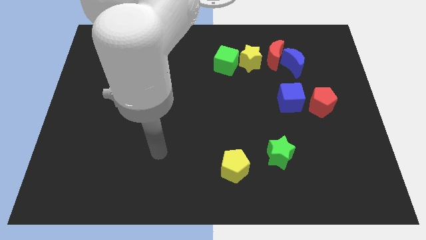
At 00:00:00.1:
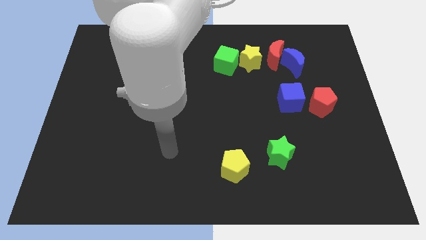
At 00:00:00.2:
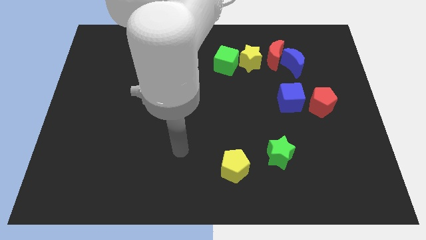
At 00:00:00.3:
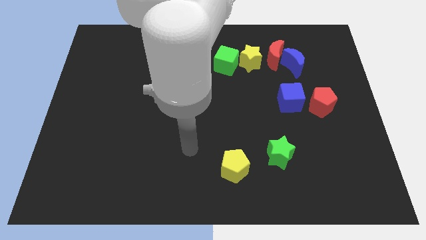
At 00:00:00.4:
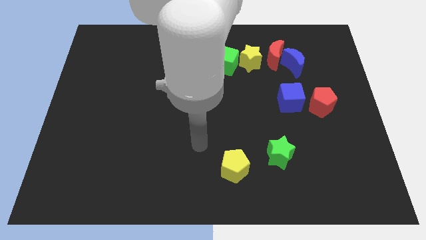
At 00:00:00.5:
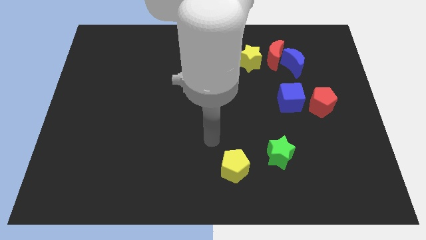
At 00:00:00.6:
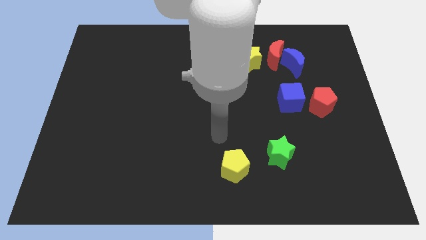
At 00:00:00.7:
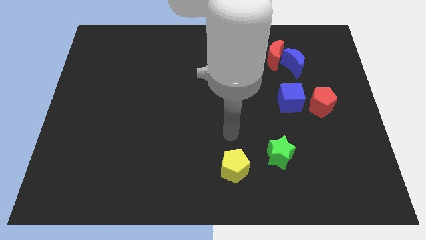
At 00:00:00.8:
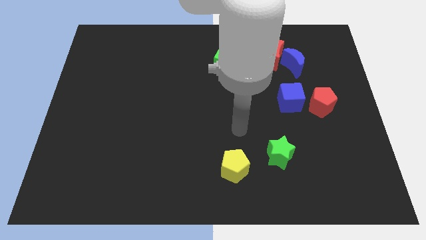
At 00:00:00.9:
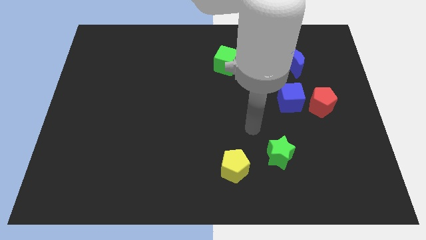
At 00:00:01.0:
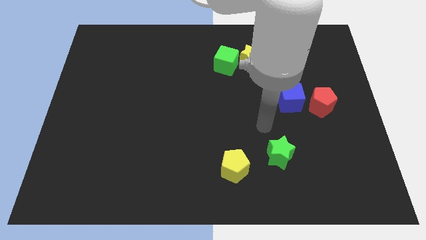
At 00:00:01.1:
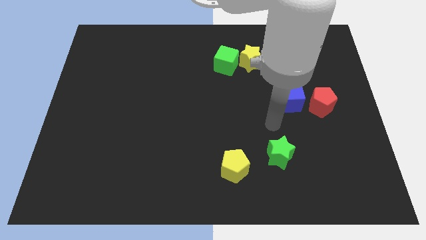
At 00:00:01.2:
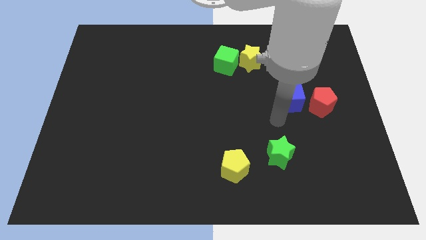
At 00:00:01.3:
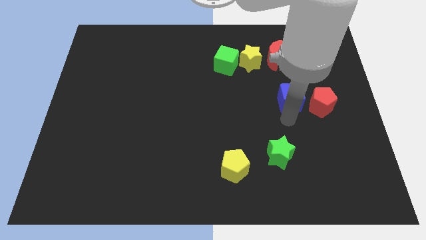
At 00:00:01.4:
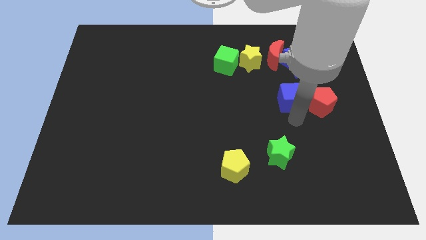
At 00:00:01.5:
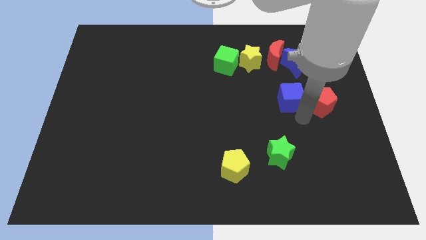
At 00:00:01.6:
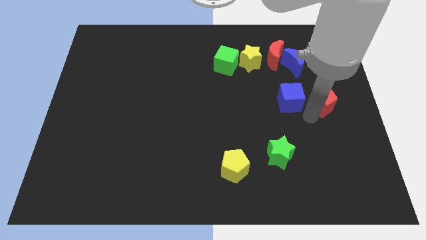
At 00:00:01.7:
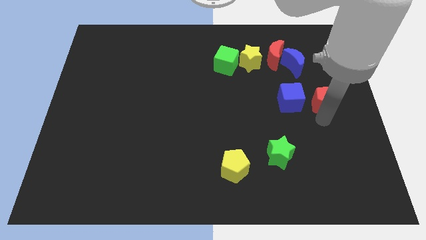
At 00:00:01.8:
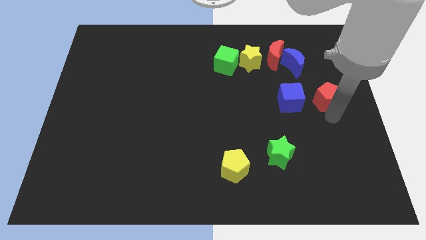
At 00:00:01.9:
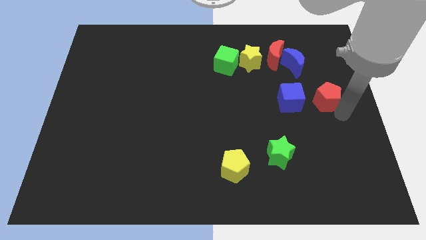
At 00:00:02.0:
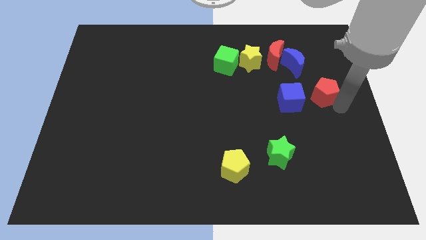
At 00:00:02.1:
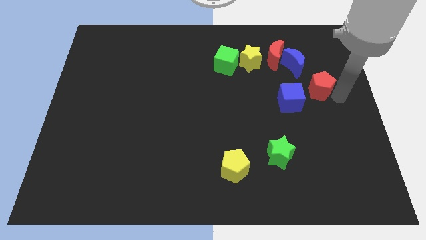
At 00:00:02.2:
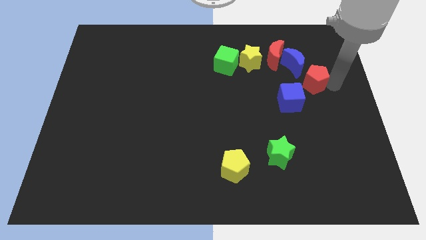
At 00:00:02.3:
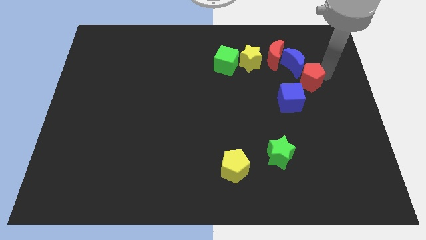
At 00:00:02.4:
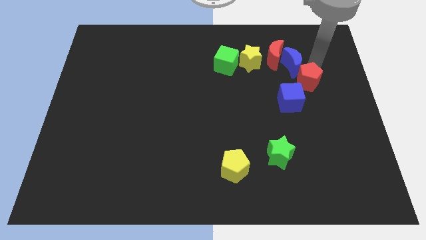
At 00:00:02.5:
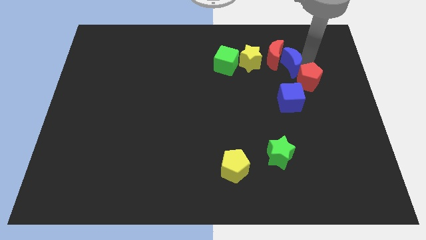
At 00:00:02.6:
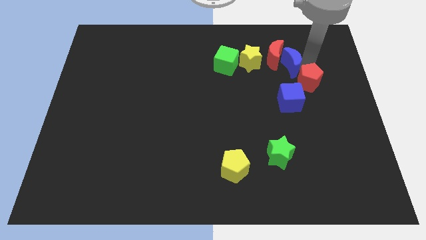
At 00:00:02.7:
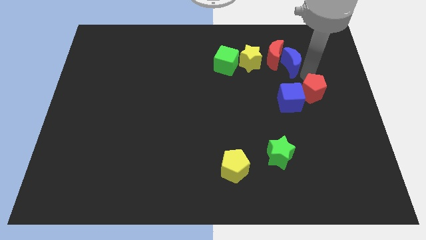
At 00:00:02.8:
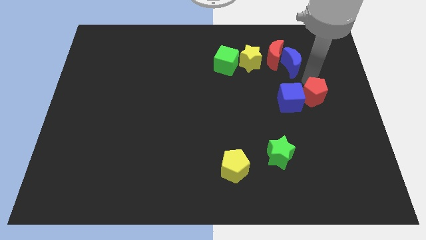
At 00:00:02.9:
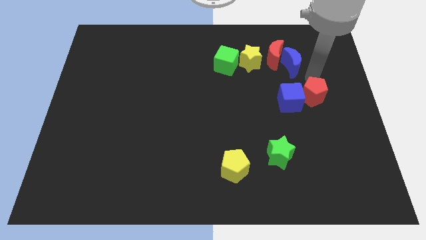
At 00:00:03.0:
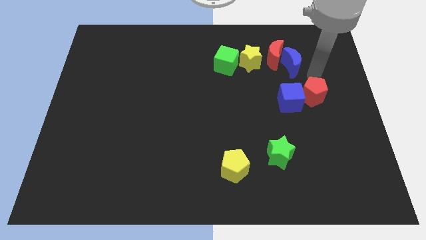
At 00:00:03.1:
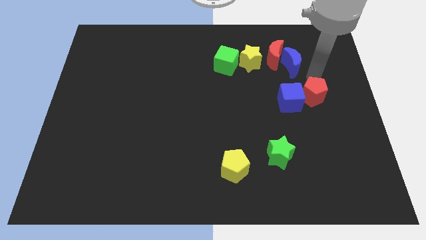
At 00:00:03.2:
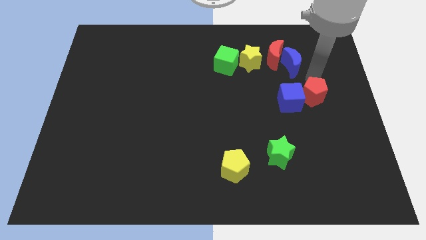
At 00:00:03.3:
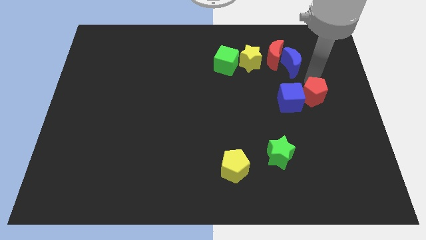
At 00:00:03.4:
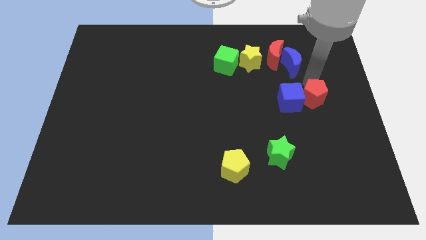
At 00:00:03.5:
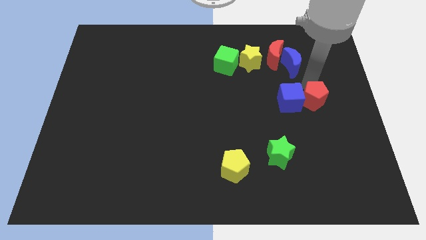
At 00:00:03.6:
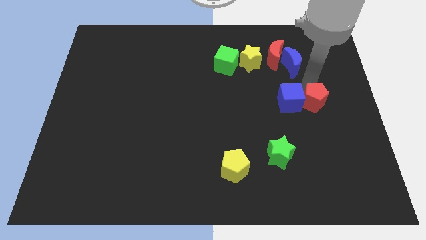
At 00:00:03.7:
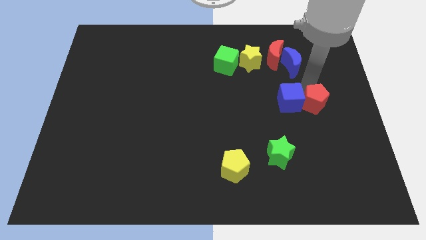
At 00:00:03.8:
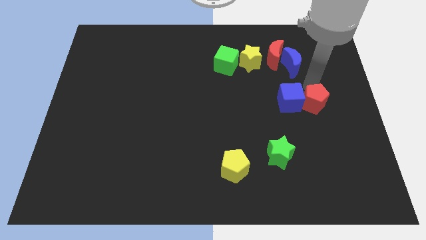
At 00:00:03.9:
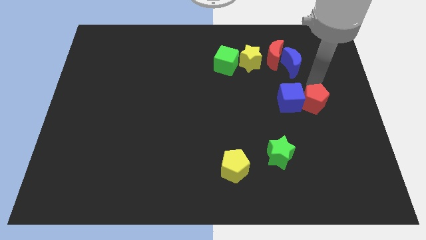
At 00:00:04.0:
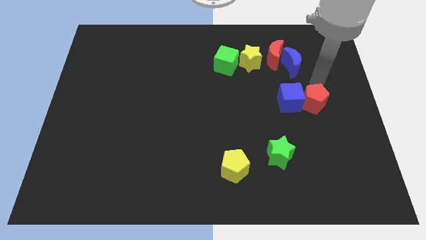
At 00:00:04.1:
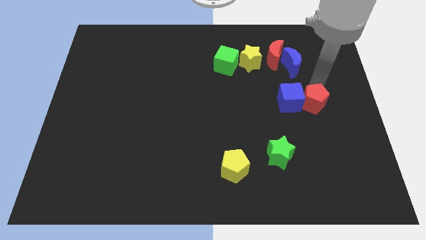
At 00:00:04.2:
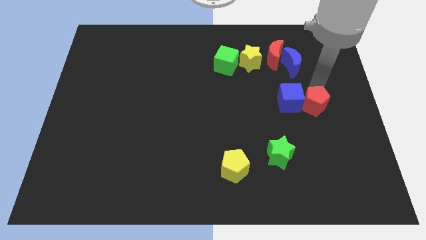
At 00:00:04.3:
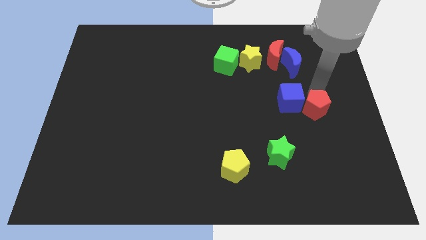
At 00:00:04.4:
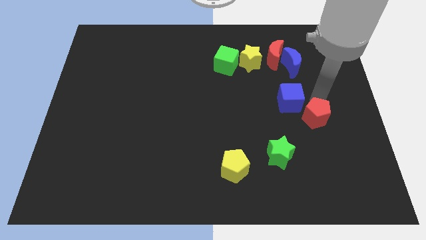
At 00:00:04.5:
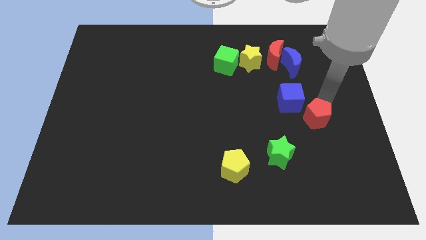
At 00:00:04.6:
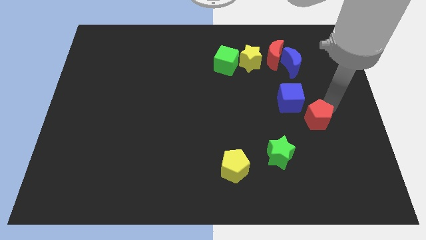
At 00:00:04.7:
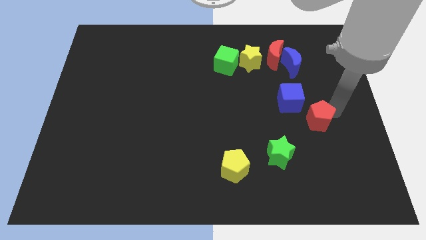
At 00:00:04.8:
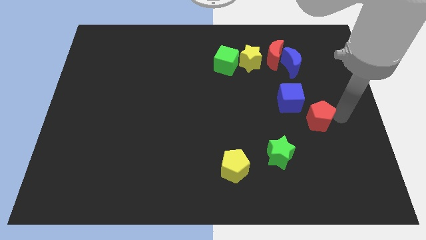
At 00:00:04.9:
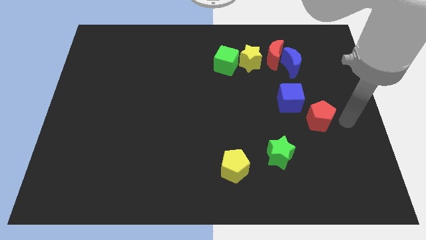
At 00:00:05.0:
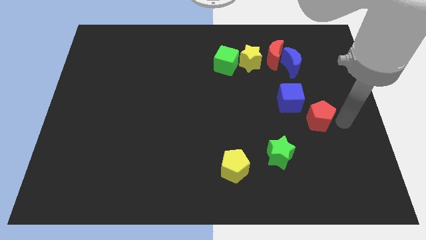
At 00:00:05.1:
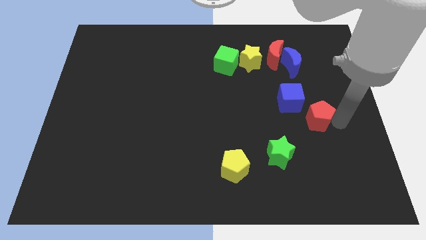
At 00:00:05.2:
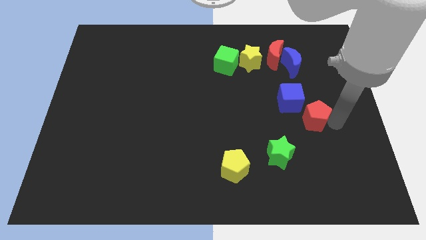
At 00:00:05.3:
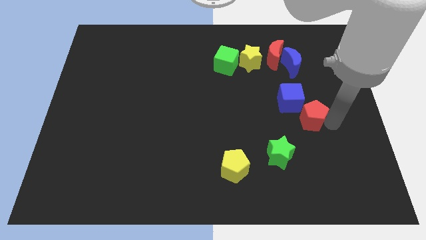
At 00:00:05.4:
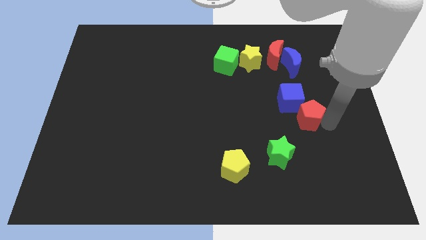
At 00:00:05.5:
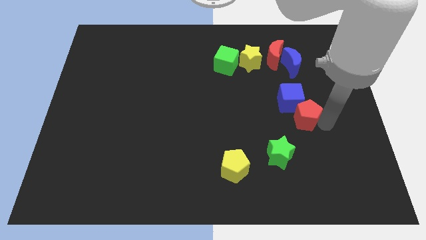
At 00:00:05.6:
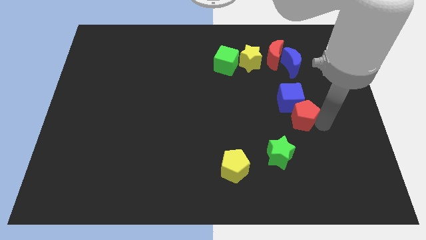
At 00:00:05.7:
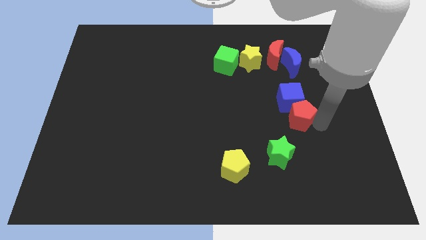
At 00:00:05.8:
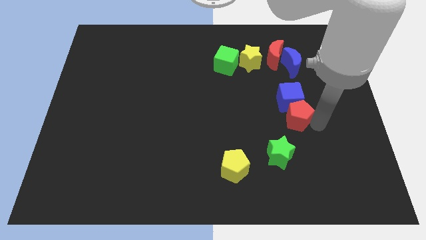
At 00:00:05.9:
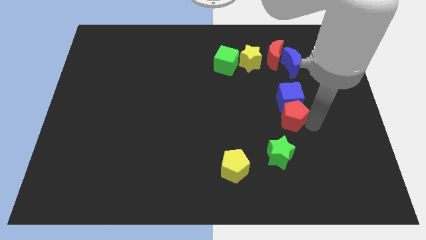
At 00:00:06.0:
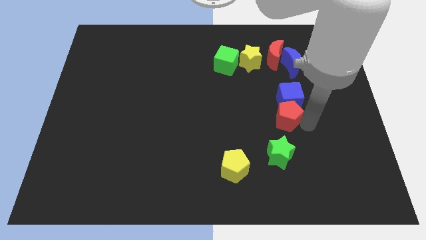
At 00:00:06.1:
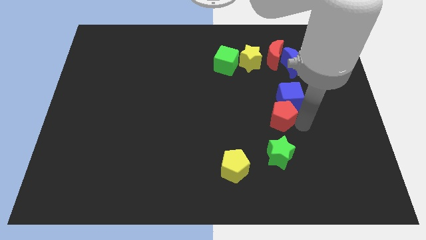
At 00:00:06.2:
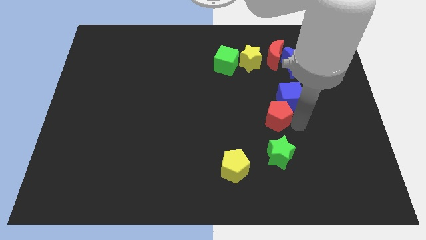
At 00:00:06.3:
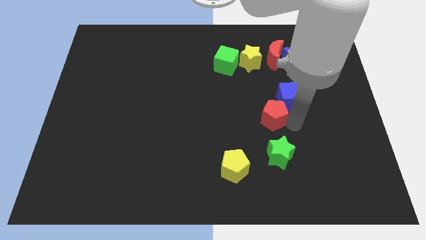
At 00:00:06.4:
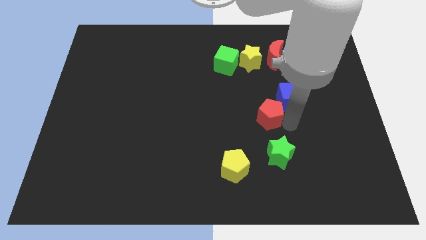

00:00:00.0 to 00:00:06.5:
push the red pentagon left of the blue cube
